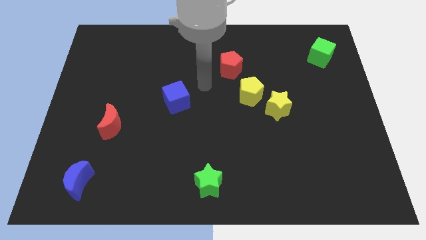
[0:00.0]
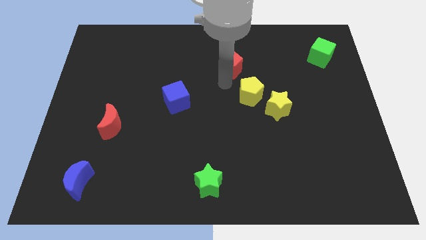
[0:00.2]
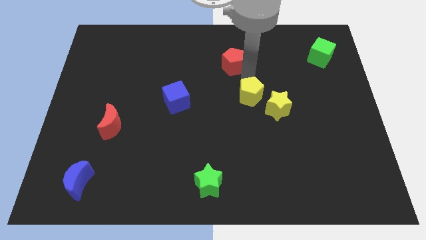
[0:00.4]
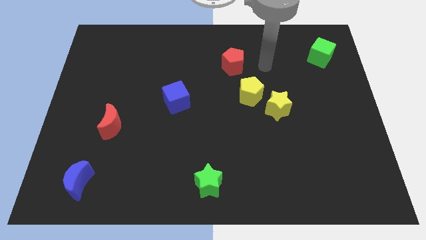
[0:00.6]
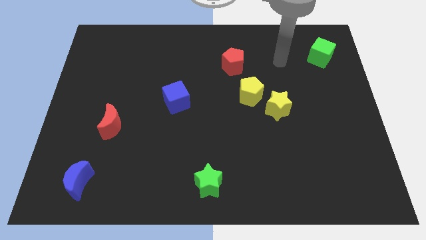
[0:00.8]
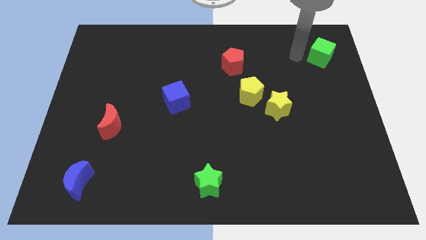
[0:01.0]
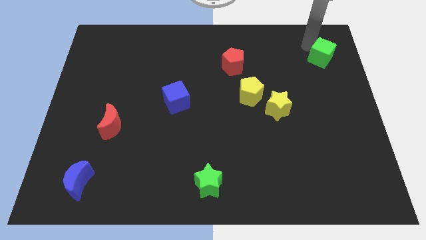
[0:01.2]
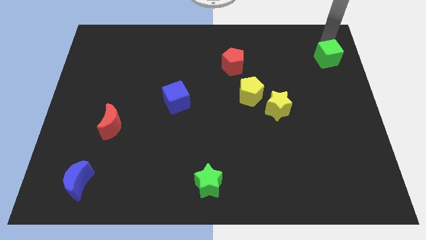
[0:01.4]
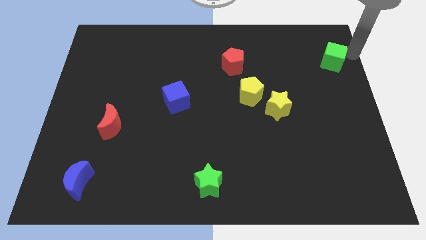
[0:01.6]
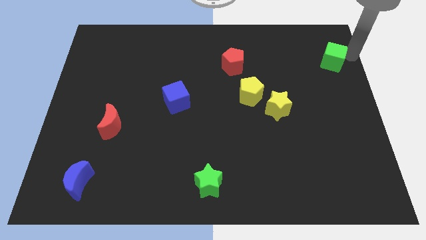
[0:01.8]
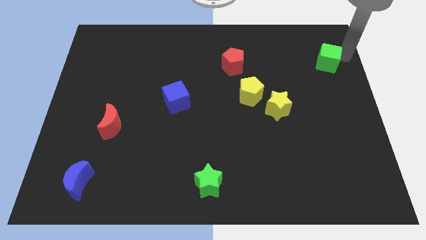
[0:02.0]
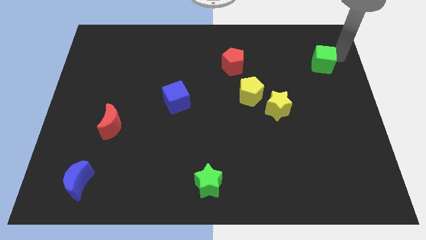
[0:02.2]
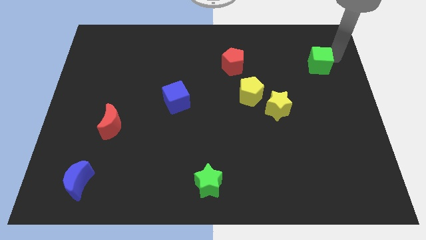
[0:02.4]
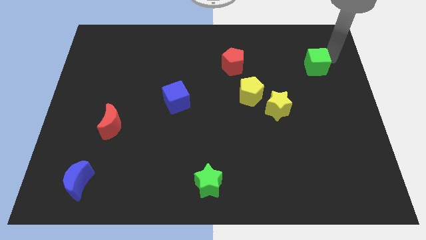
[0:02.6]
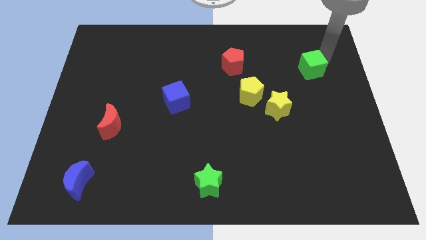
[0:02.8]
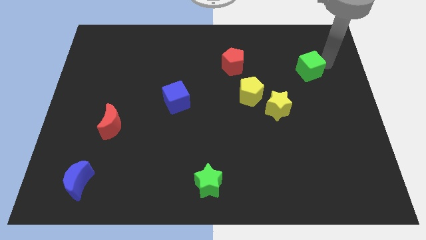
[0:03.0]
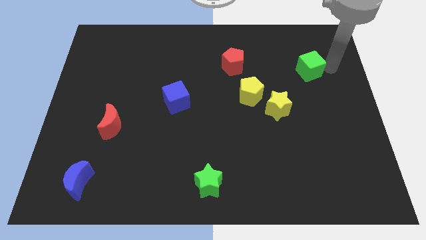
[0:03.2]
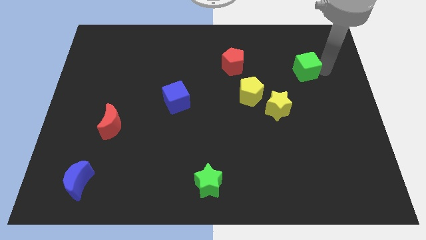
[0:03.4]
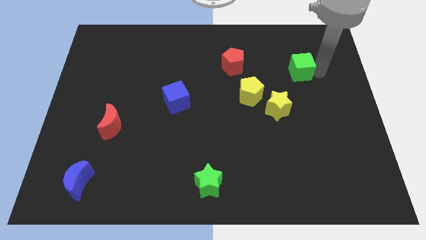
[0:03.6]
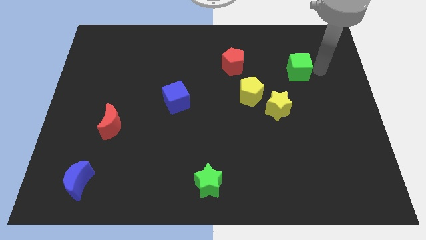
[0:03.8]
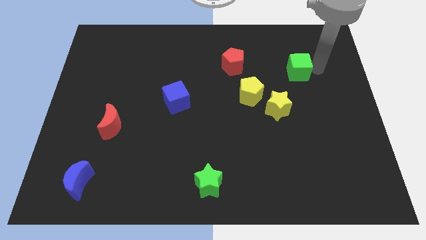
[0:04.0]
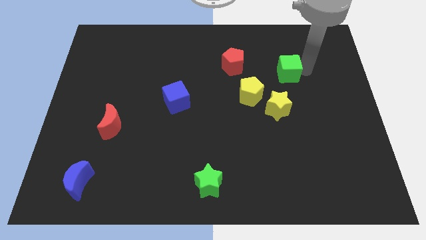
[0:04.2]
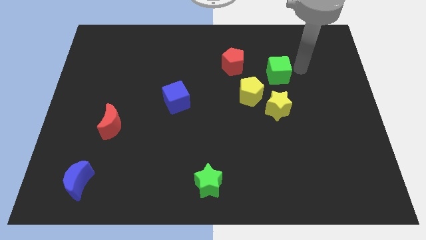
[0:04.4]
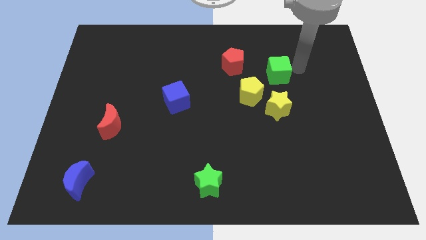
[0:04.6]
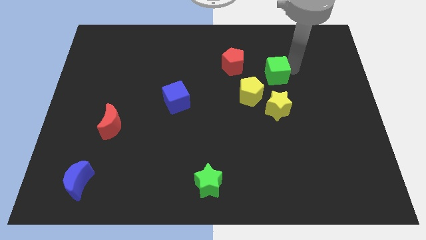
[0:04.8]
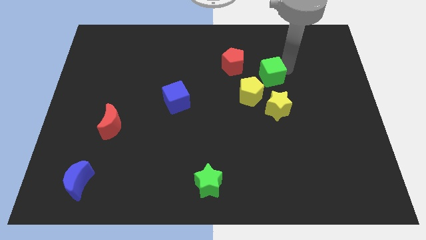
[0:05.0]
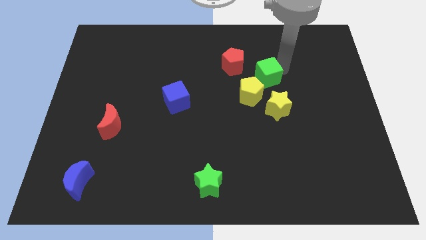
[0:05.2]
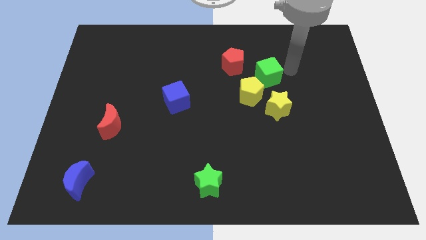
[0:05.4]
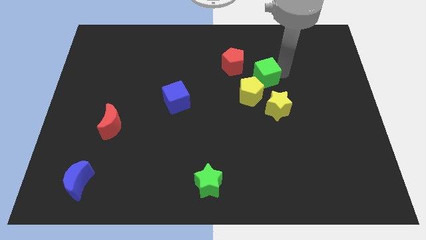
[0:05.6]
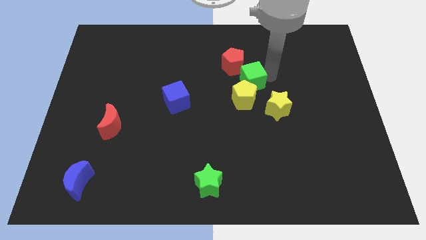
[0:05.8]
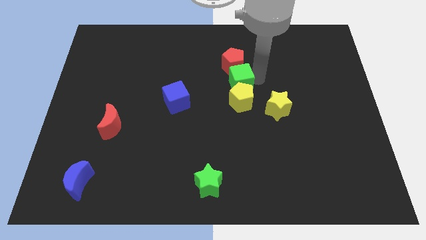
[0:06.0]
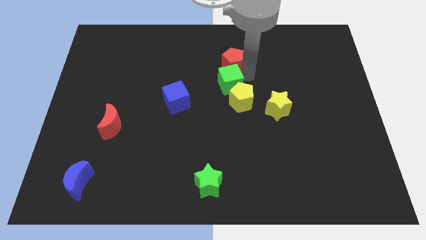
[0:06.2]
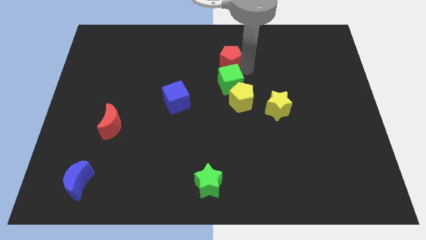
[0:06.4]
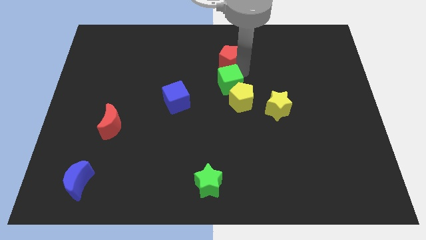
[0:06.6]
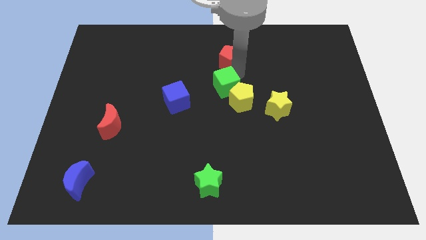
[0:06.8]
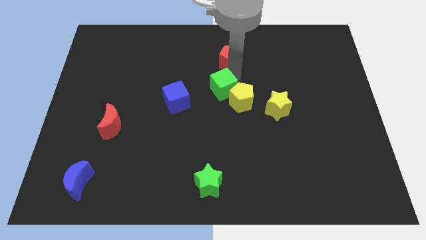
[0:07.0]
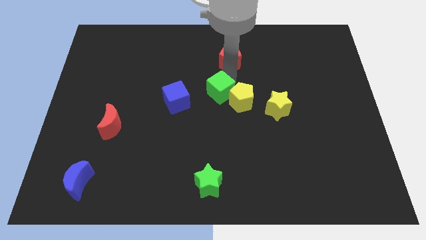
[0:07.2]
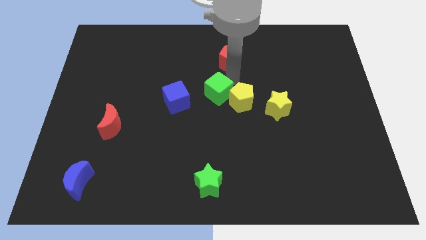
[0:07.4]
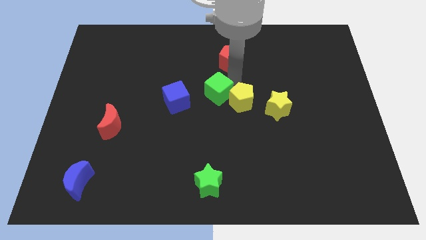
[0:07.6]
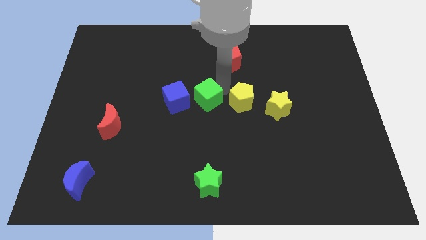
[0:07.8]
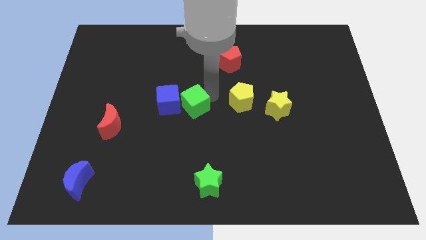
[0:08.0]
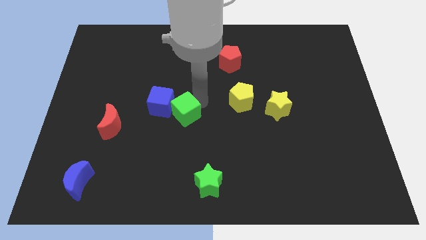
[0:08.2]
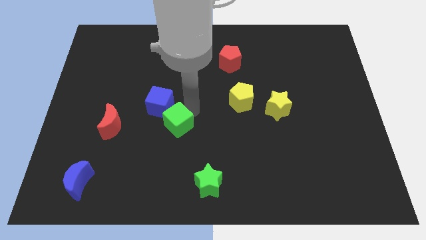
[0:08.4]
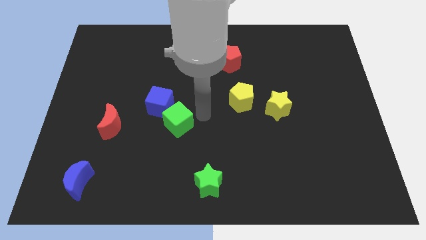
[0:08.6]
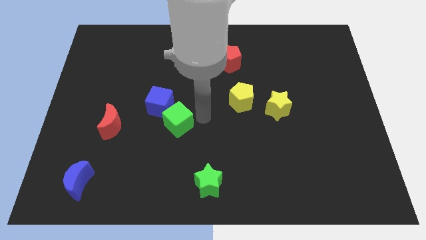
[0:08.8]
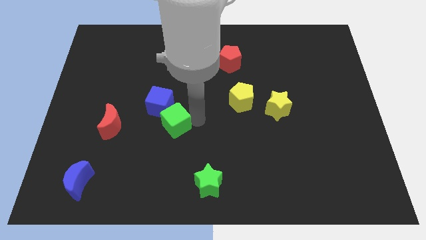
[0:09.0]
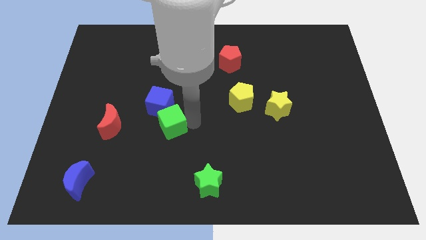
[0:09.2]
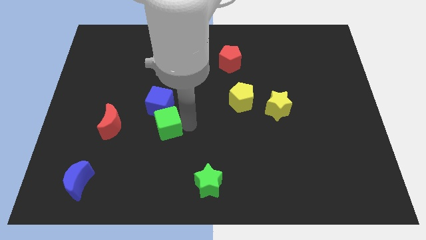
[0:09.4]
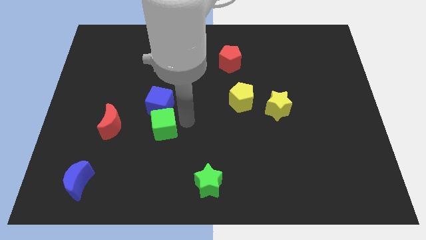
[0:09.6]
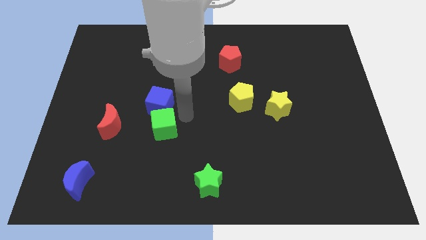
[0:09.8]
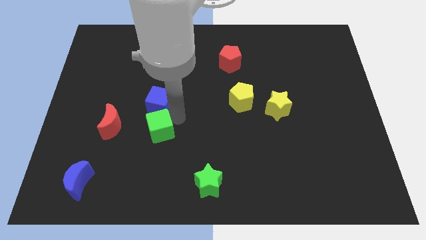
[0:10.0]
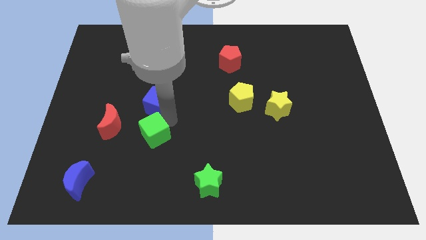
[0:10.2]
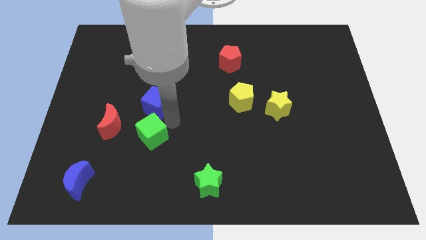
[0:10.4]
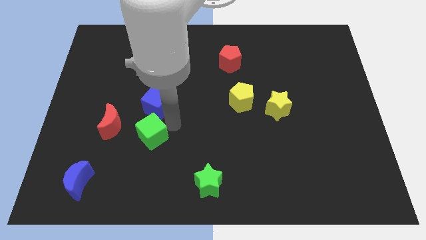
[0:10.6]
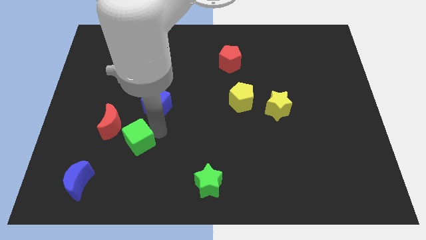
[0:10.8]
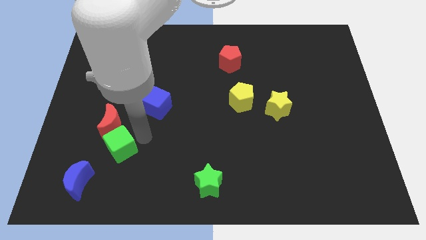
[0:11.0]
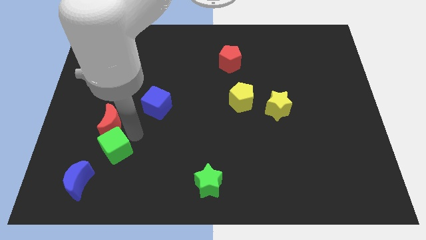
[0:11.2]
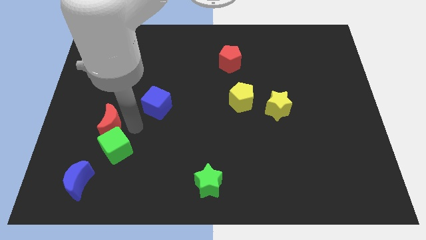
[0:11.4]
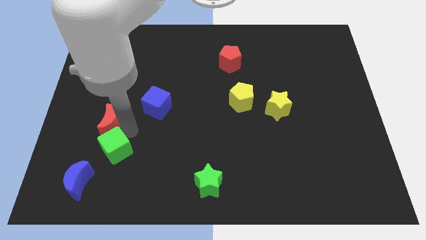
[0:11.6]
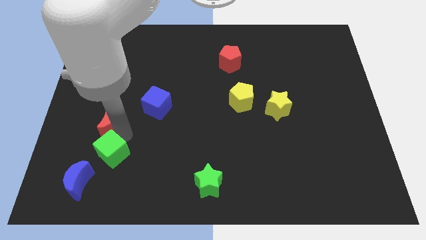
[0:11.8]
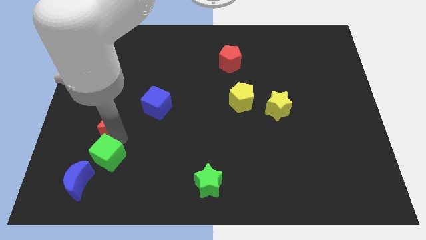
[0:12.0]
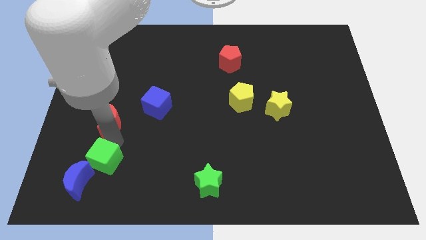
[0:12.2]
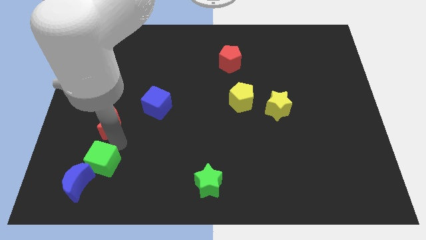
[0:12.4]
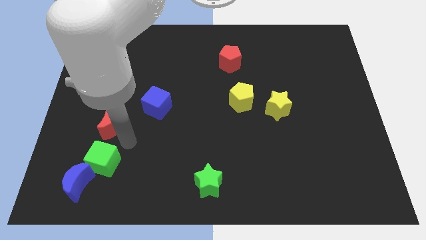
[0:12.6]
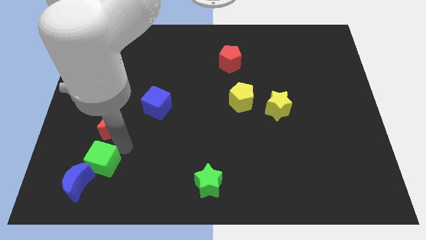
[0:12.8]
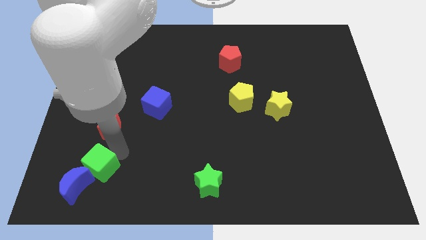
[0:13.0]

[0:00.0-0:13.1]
push the green cube to the blue moon
